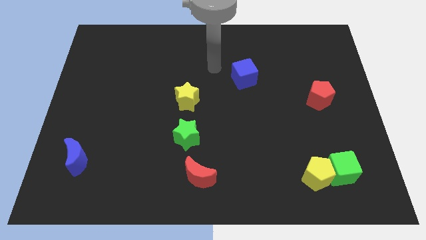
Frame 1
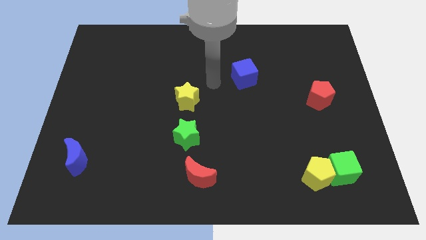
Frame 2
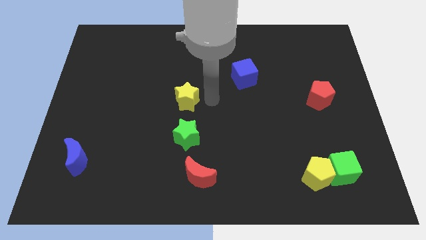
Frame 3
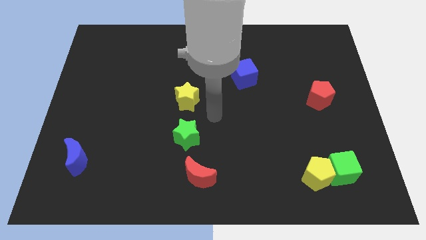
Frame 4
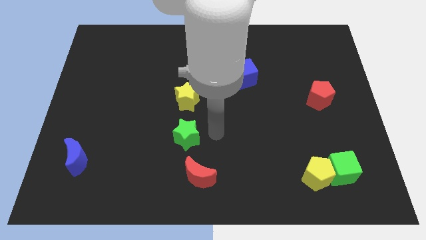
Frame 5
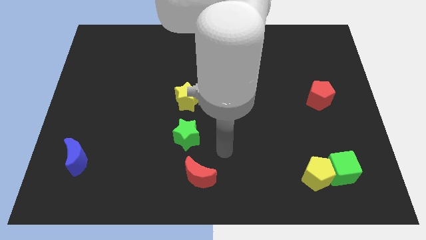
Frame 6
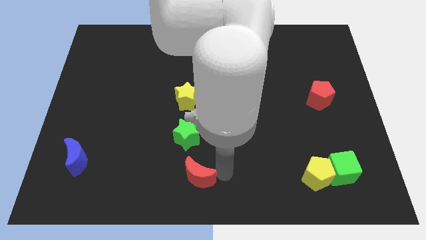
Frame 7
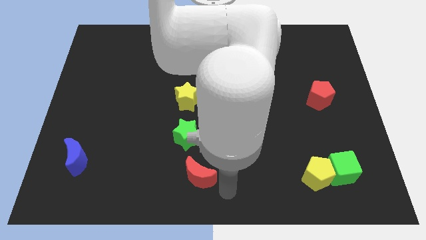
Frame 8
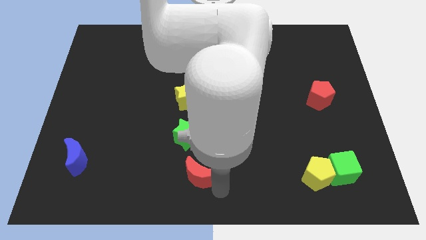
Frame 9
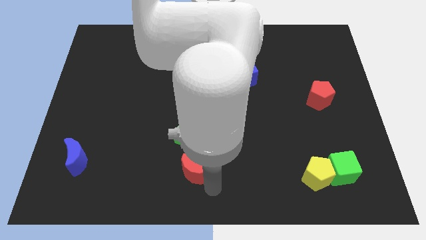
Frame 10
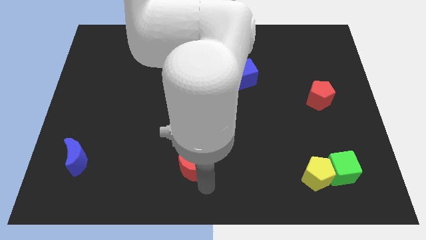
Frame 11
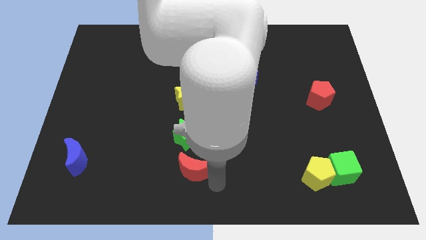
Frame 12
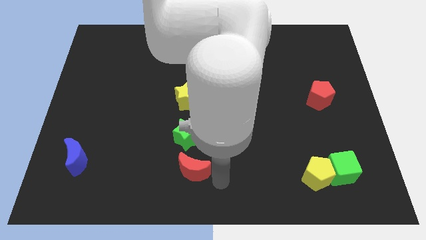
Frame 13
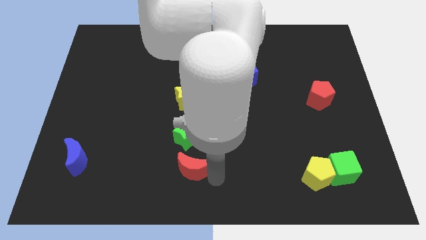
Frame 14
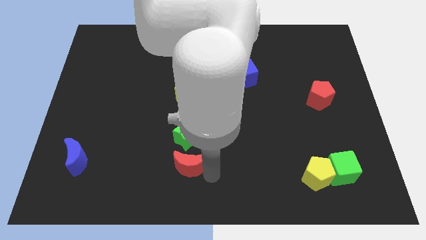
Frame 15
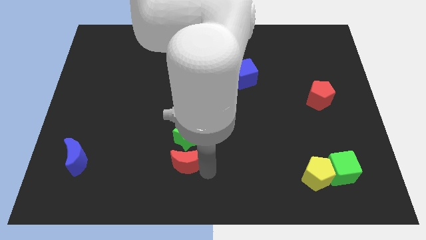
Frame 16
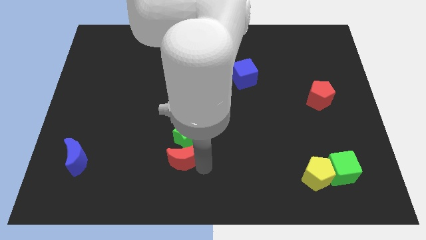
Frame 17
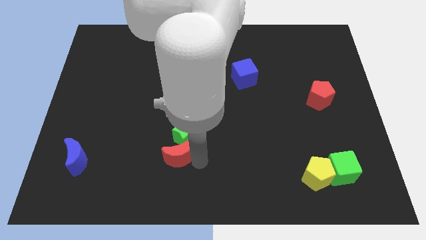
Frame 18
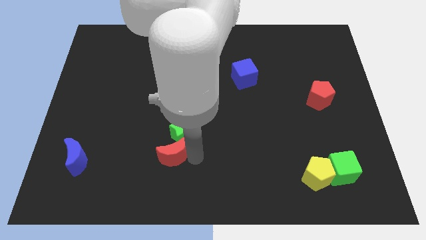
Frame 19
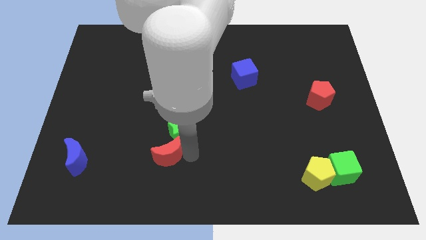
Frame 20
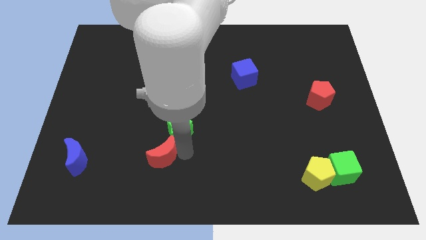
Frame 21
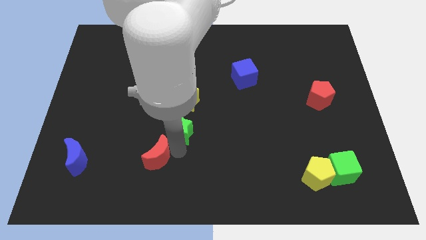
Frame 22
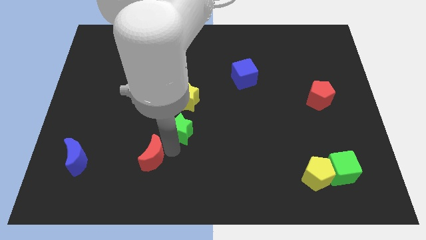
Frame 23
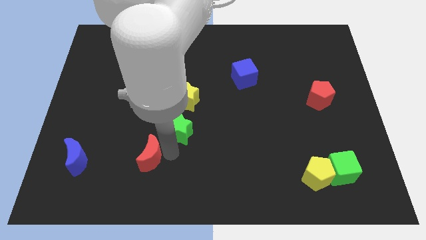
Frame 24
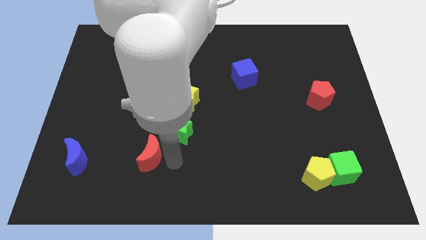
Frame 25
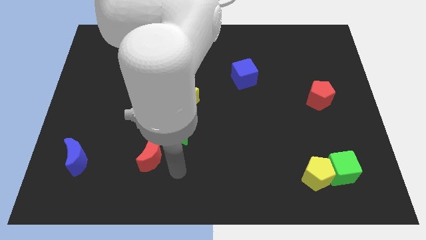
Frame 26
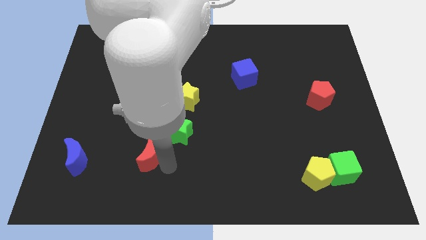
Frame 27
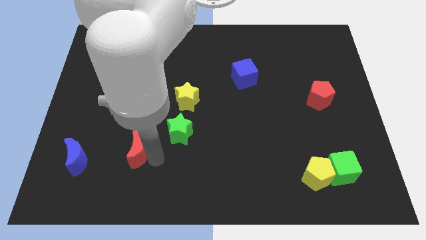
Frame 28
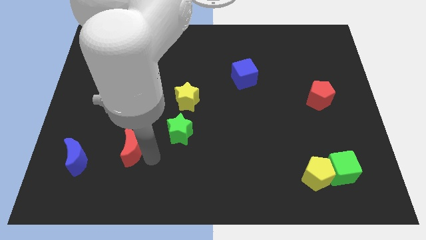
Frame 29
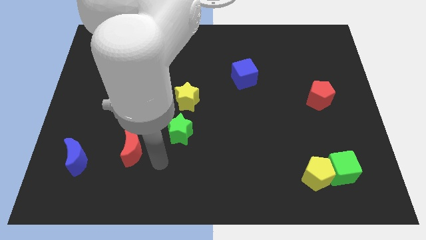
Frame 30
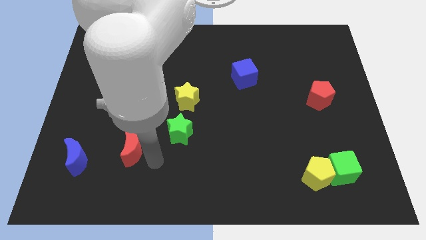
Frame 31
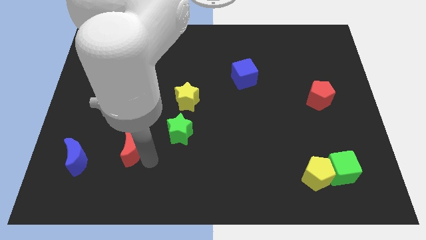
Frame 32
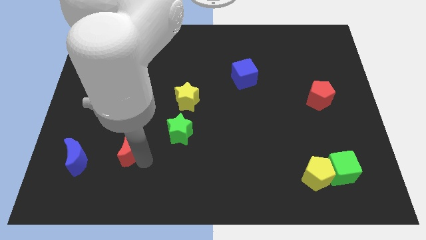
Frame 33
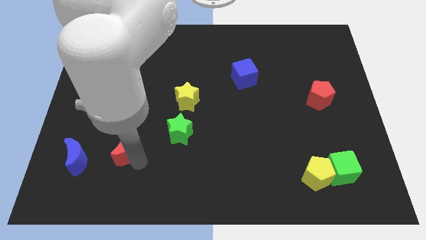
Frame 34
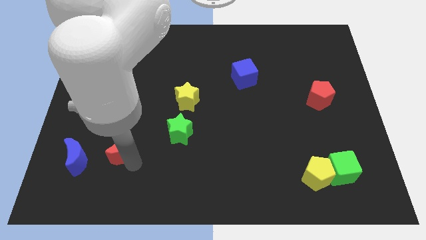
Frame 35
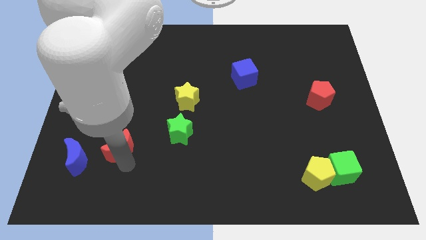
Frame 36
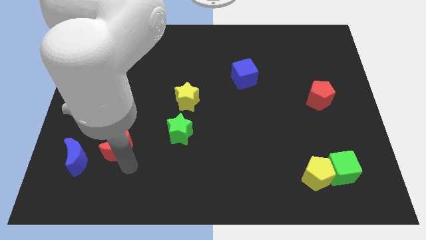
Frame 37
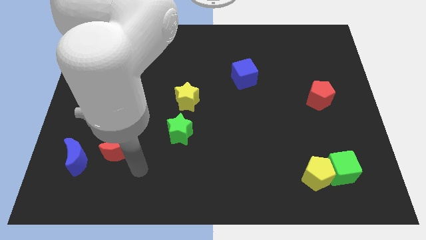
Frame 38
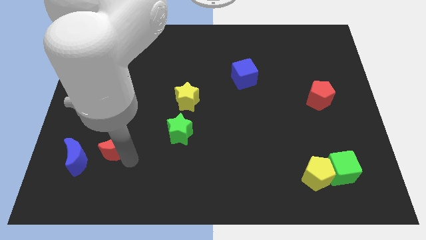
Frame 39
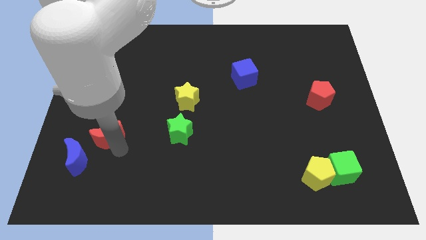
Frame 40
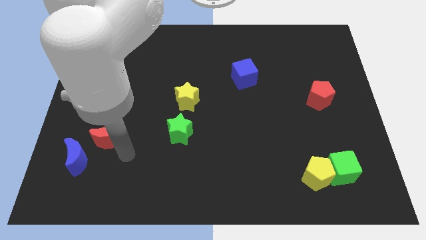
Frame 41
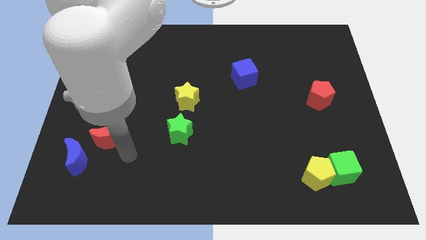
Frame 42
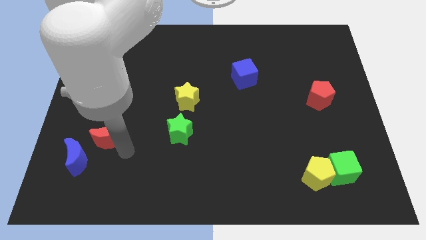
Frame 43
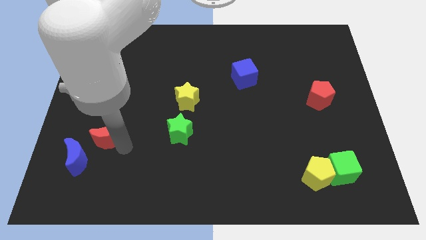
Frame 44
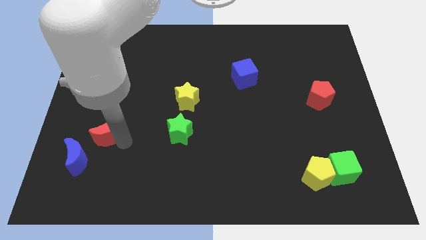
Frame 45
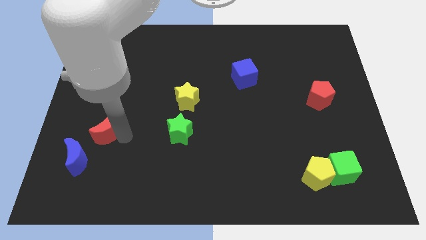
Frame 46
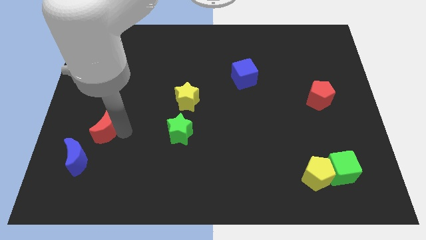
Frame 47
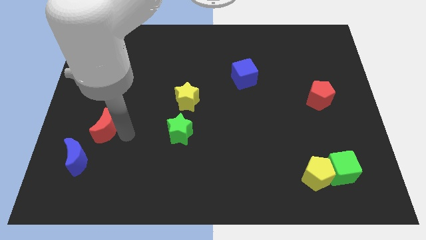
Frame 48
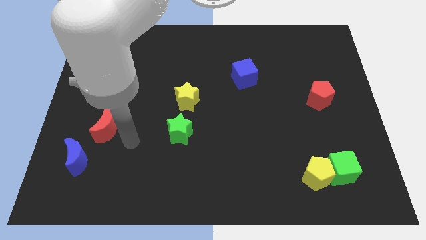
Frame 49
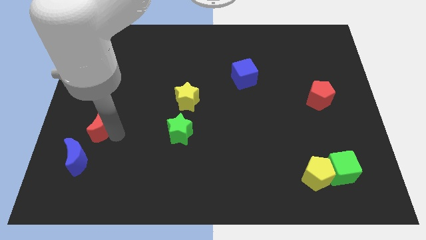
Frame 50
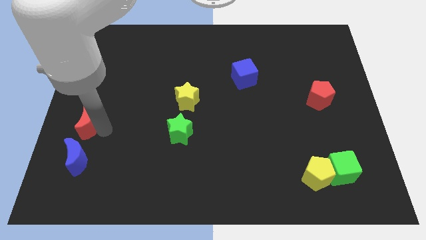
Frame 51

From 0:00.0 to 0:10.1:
move the red moon to the left side of the board

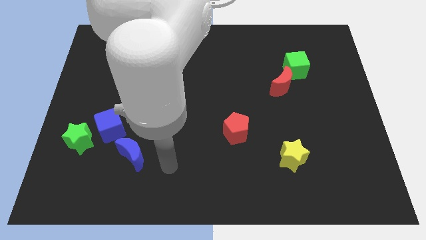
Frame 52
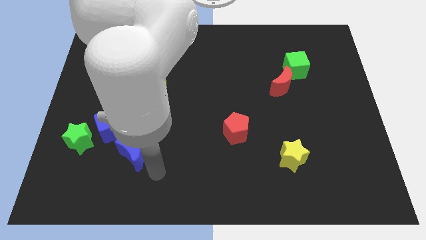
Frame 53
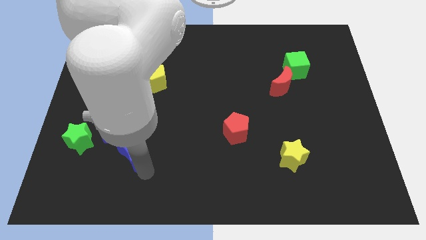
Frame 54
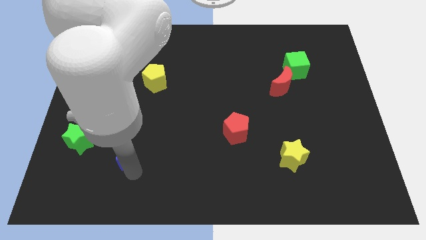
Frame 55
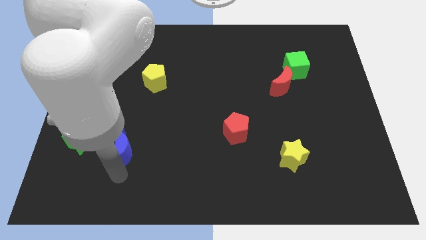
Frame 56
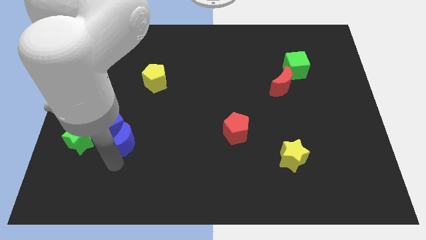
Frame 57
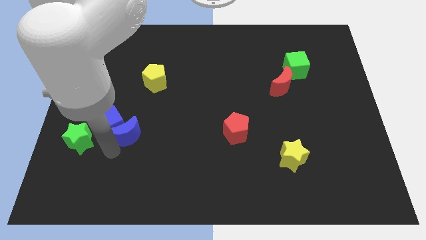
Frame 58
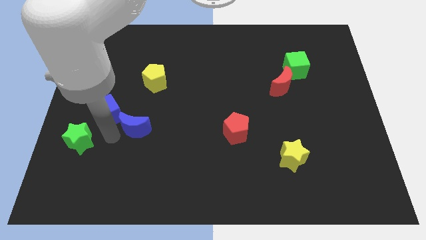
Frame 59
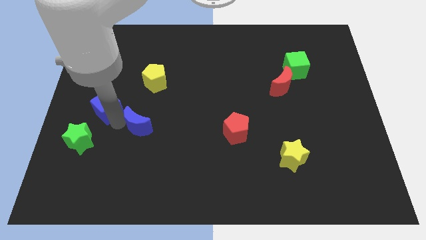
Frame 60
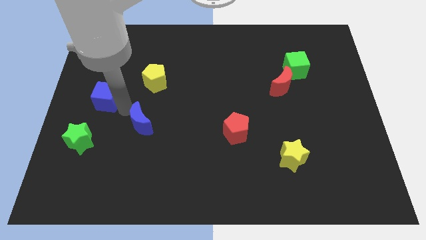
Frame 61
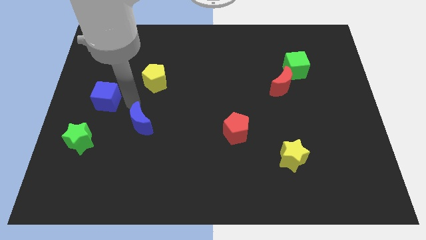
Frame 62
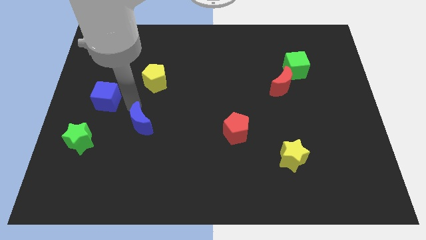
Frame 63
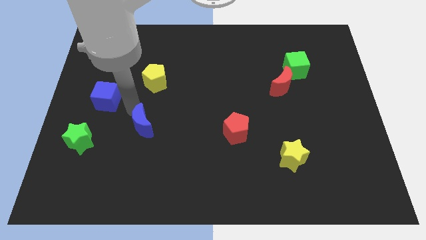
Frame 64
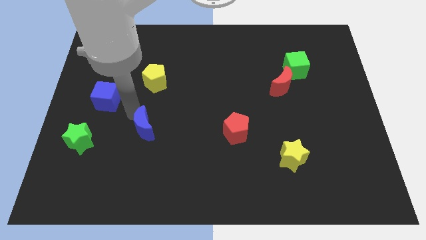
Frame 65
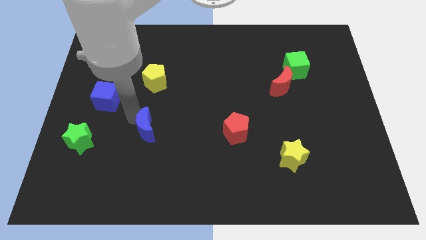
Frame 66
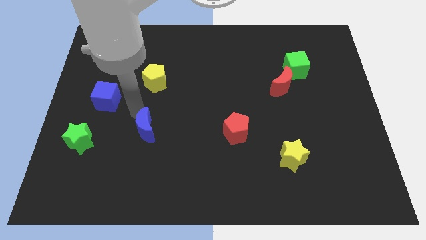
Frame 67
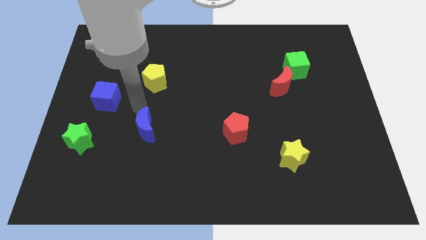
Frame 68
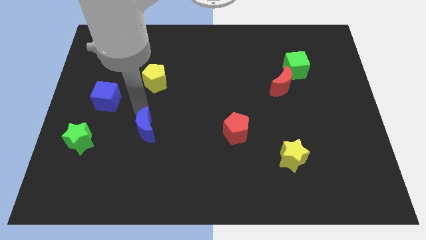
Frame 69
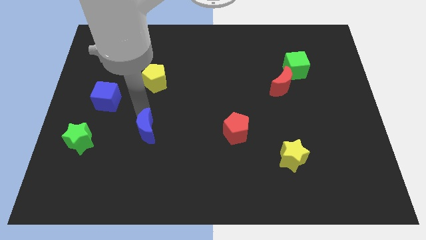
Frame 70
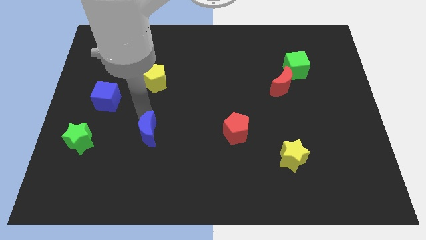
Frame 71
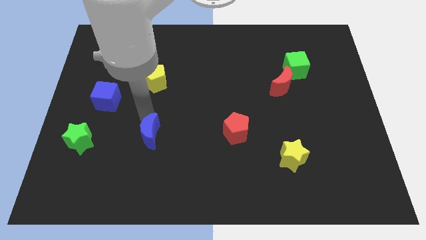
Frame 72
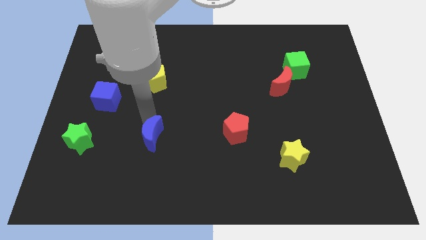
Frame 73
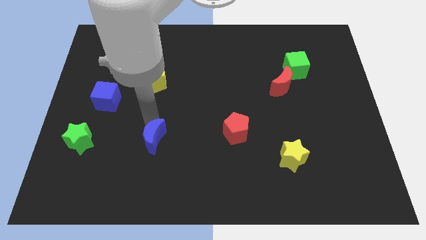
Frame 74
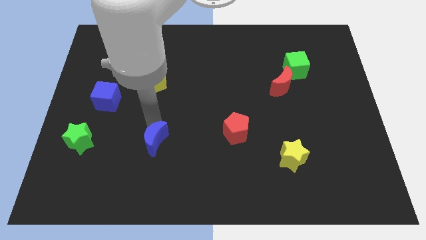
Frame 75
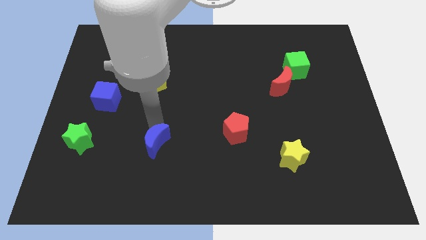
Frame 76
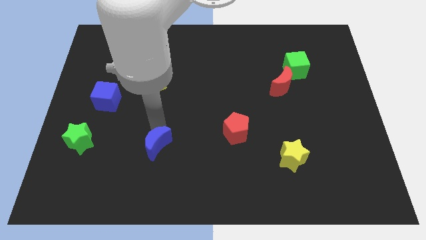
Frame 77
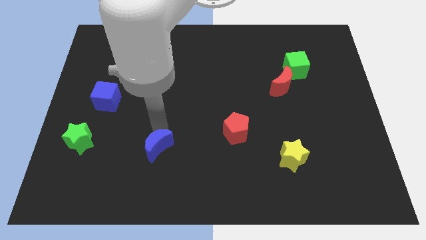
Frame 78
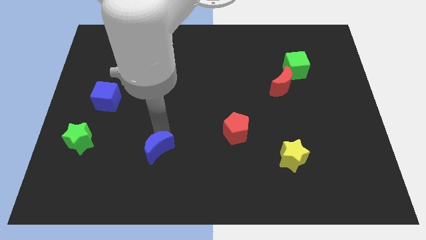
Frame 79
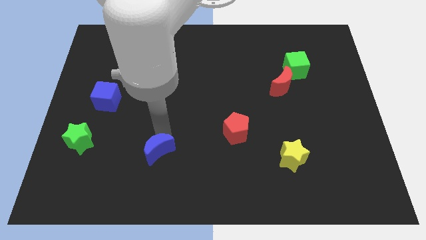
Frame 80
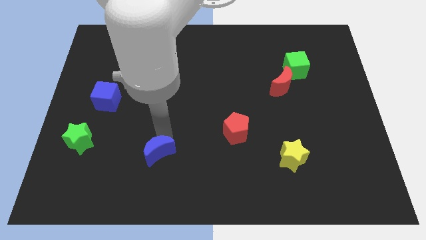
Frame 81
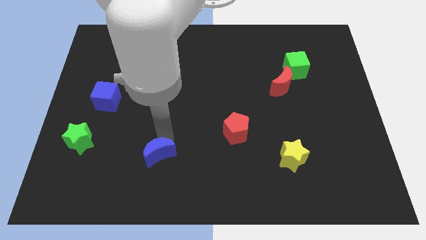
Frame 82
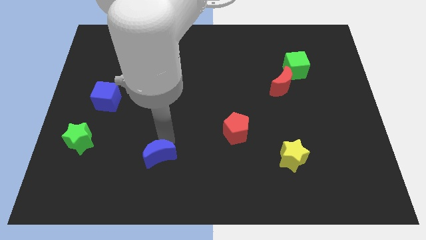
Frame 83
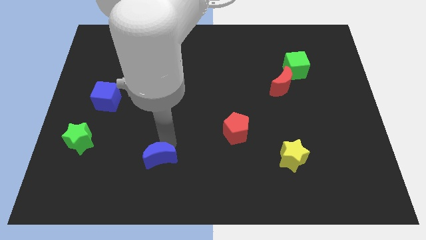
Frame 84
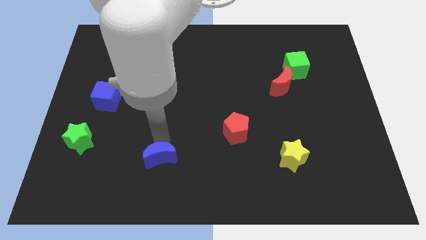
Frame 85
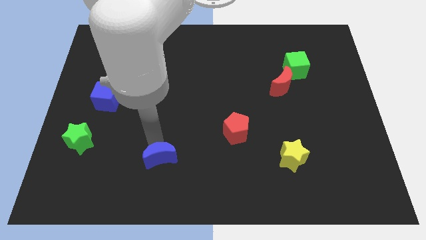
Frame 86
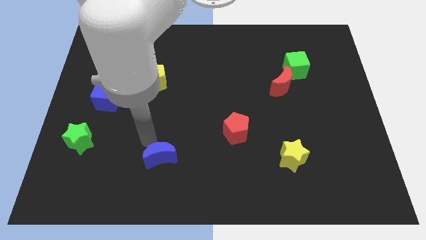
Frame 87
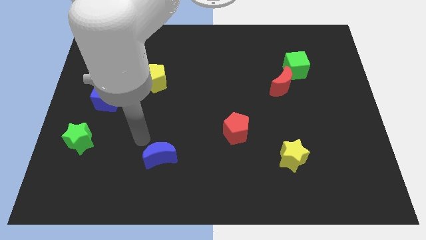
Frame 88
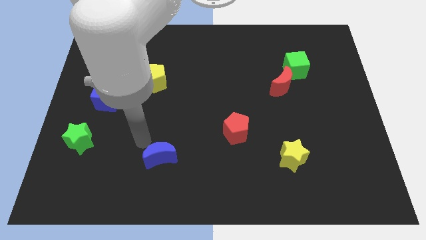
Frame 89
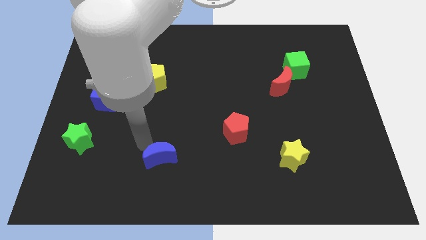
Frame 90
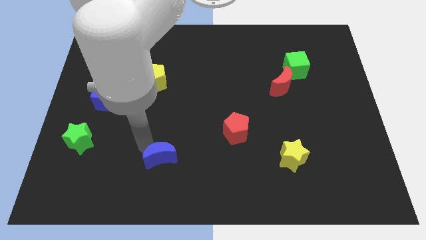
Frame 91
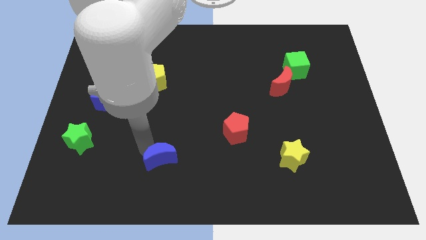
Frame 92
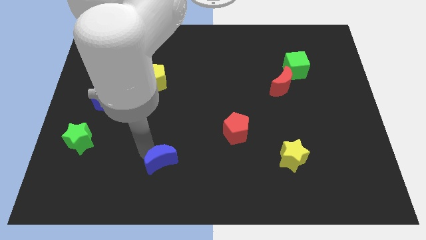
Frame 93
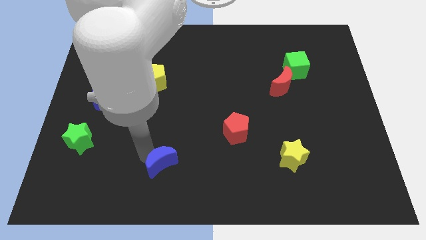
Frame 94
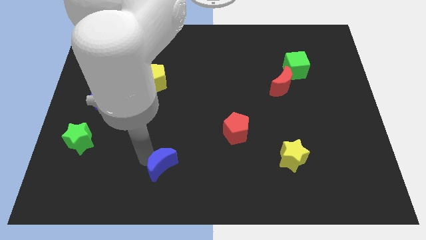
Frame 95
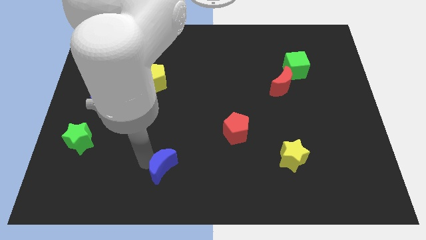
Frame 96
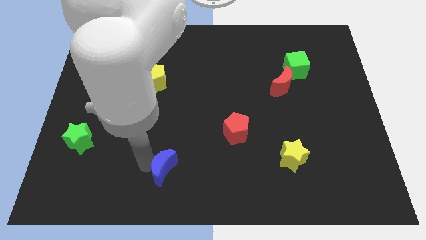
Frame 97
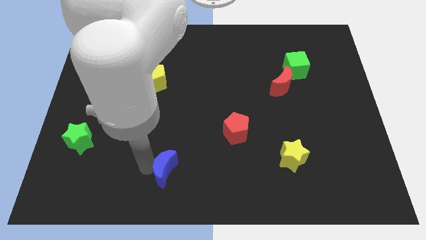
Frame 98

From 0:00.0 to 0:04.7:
put the blue moon to the bottom side
